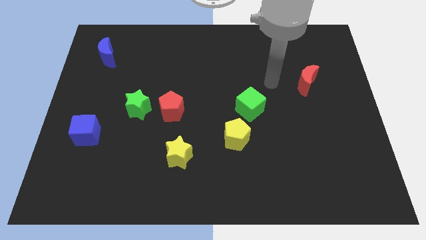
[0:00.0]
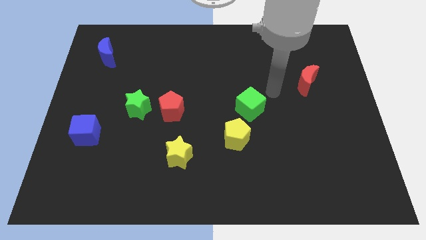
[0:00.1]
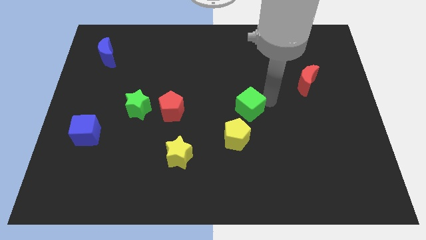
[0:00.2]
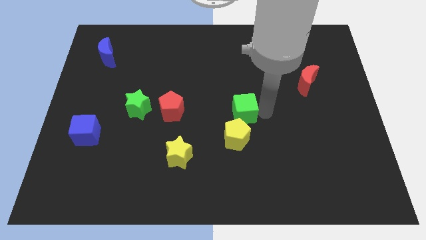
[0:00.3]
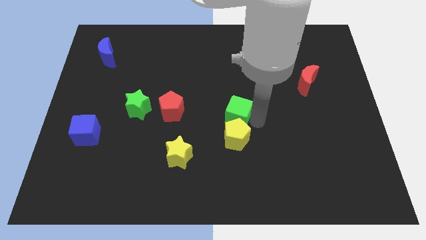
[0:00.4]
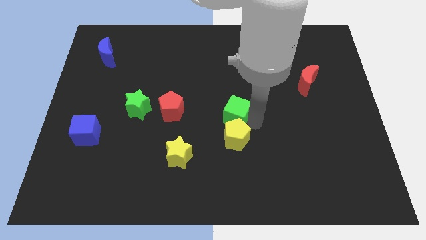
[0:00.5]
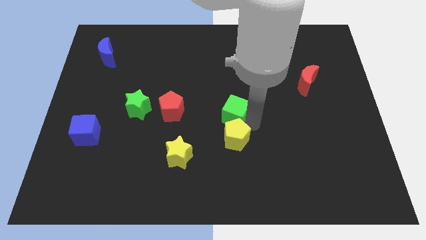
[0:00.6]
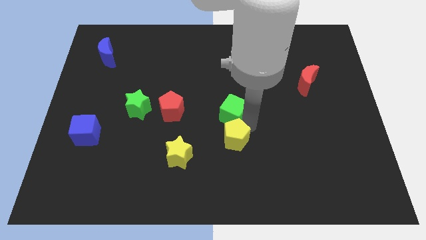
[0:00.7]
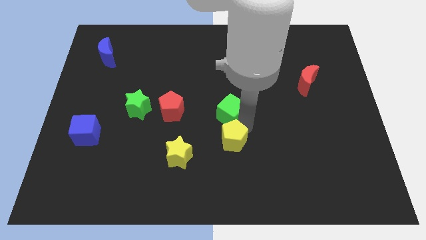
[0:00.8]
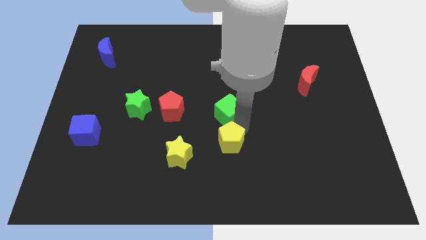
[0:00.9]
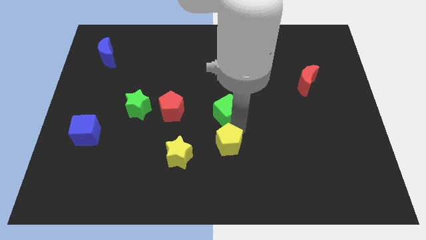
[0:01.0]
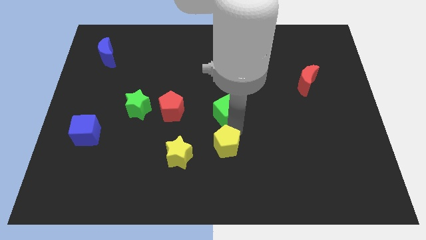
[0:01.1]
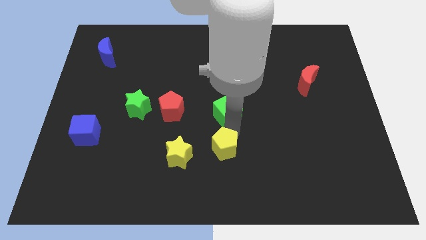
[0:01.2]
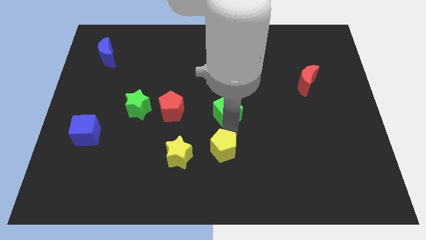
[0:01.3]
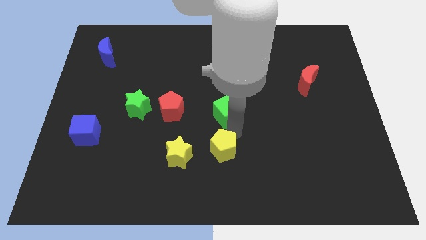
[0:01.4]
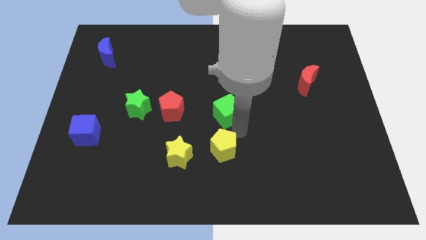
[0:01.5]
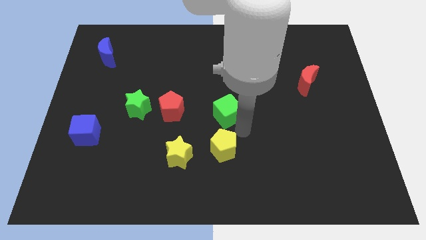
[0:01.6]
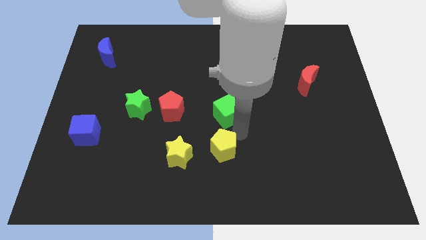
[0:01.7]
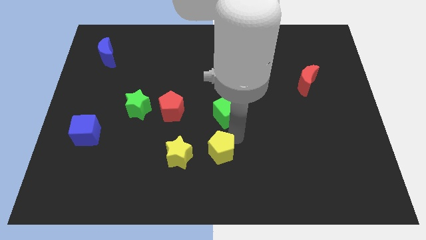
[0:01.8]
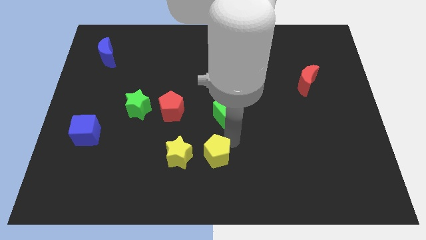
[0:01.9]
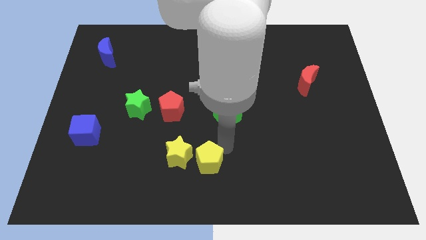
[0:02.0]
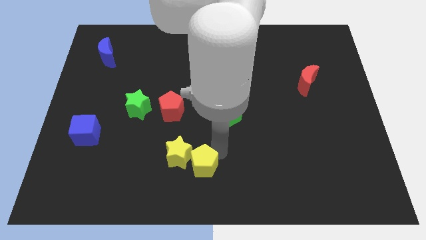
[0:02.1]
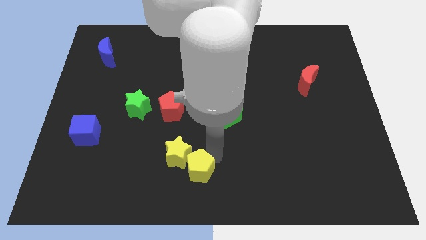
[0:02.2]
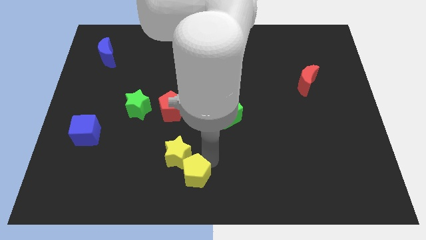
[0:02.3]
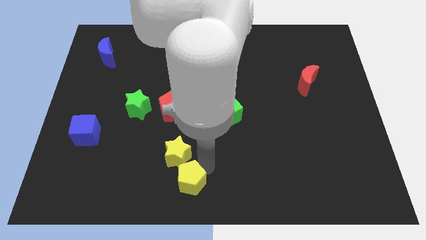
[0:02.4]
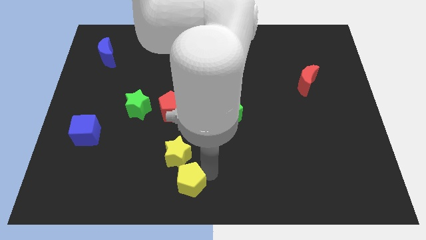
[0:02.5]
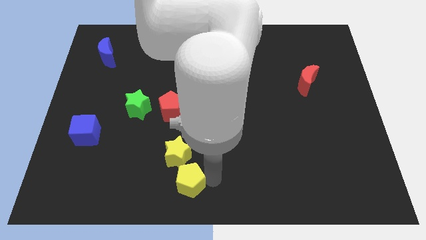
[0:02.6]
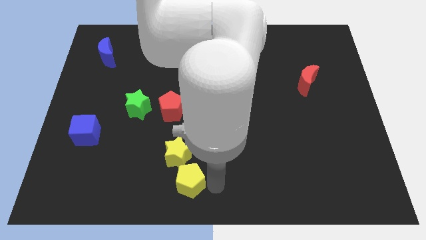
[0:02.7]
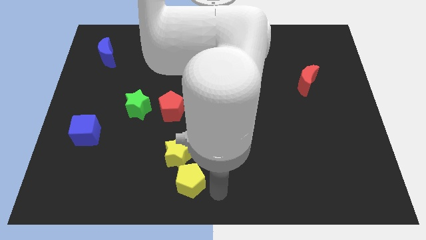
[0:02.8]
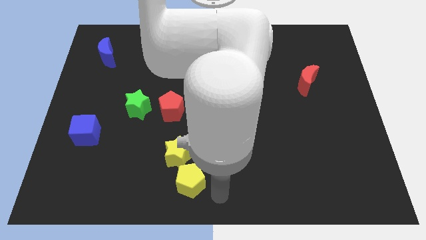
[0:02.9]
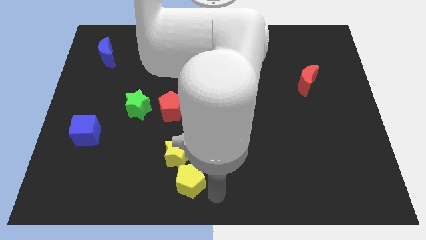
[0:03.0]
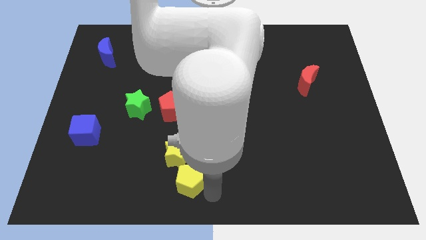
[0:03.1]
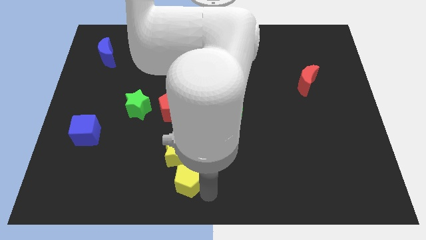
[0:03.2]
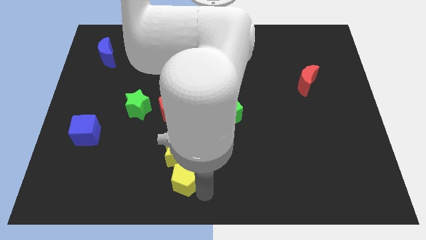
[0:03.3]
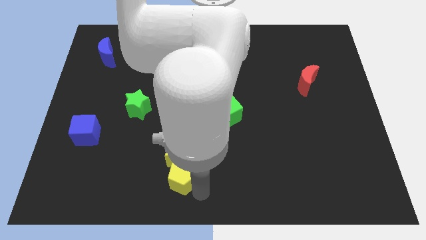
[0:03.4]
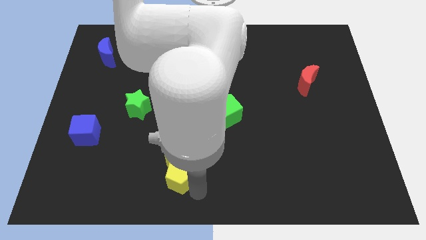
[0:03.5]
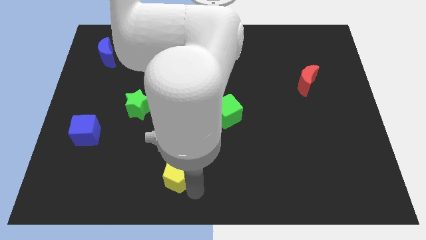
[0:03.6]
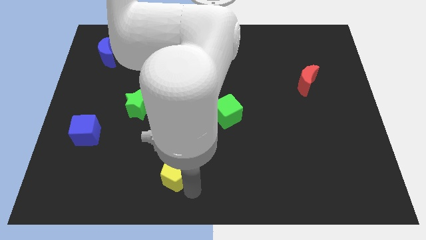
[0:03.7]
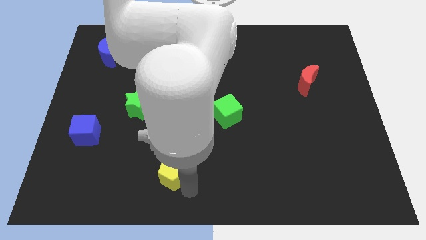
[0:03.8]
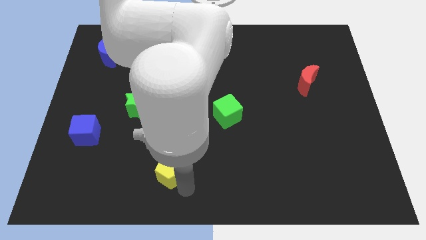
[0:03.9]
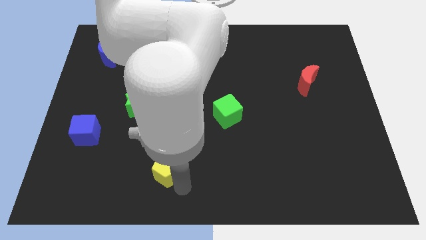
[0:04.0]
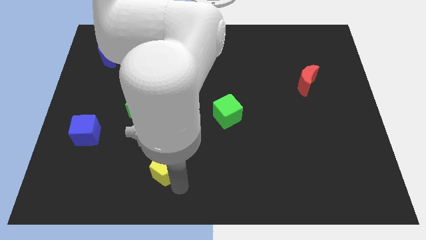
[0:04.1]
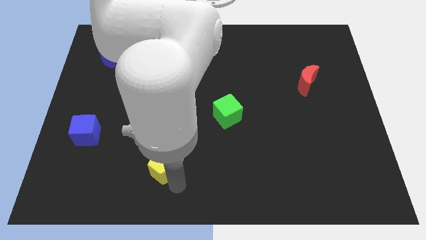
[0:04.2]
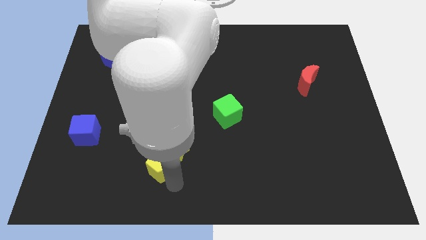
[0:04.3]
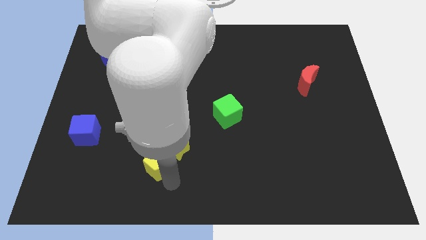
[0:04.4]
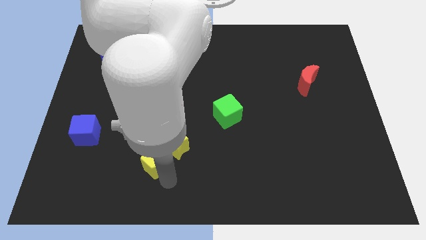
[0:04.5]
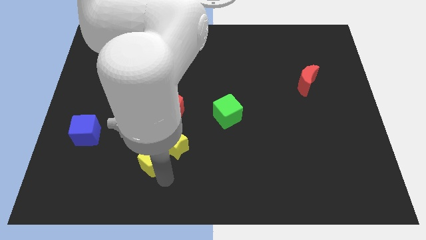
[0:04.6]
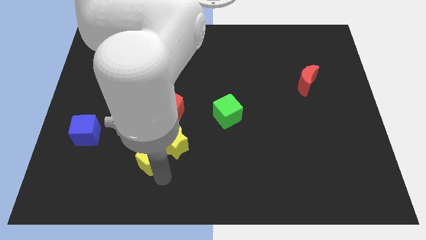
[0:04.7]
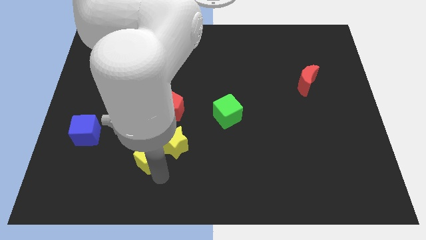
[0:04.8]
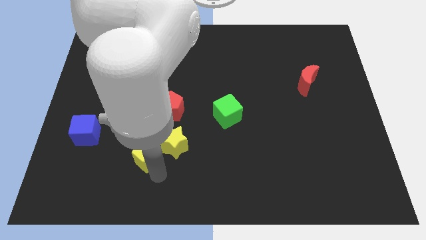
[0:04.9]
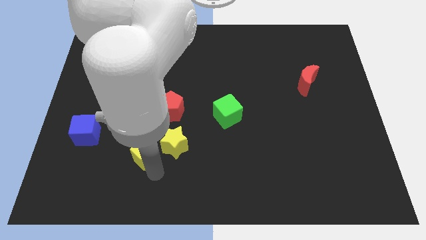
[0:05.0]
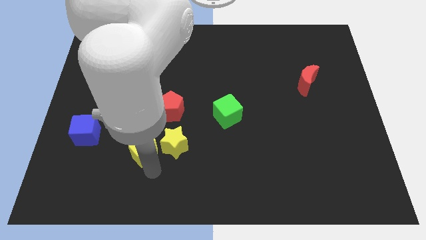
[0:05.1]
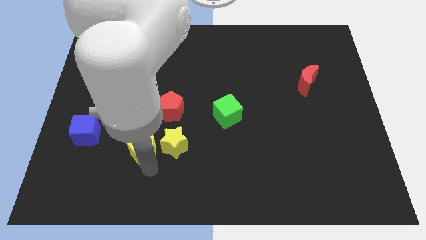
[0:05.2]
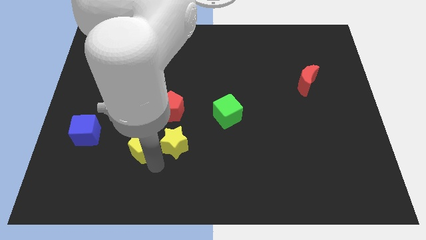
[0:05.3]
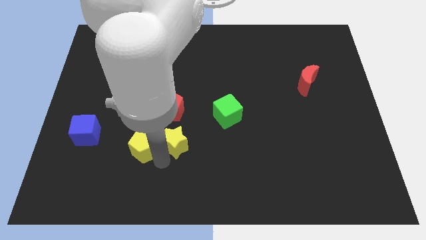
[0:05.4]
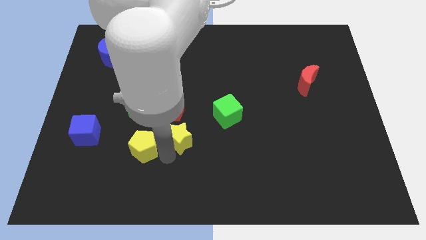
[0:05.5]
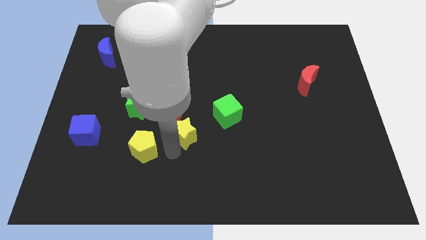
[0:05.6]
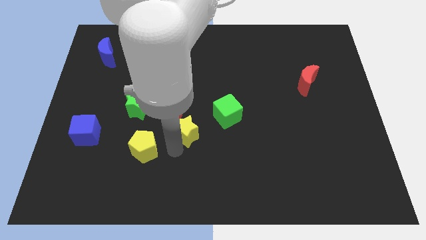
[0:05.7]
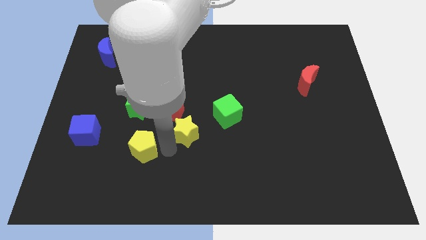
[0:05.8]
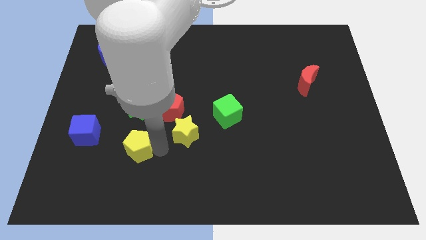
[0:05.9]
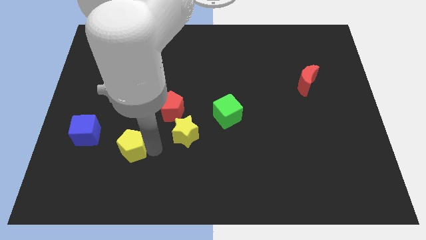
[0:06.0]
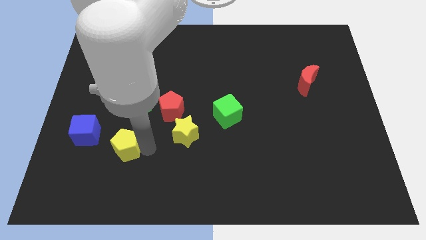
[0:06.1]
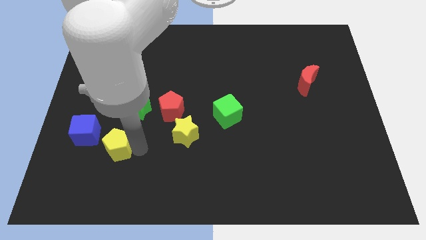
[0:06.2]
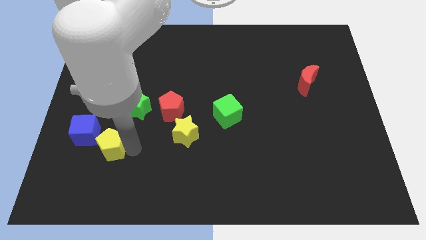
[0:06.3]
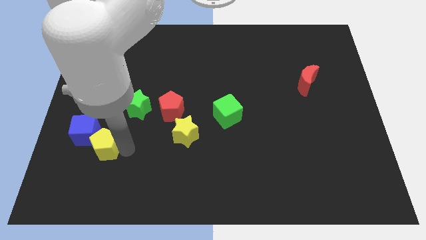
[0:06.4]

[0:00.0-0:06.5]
push the yellow pentagon towards the blue cube
